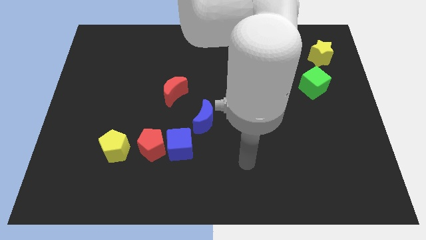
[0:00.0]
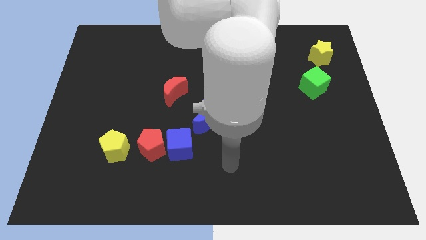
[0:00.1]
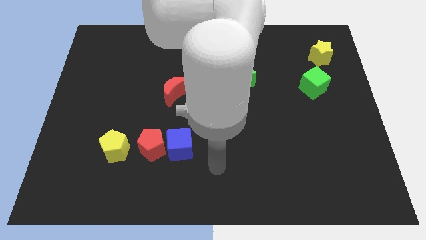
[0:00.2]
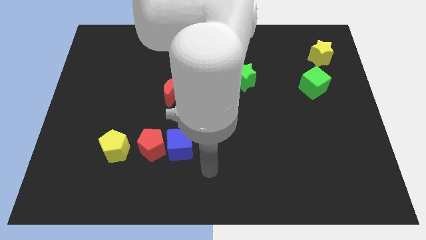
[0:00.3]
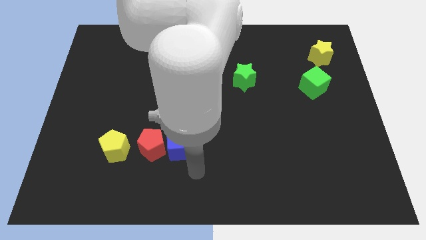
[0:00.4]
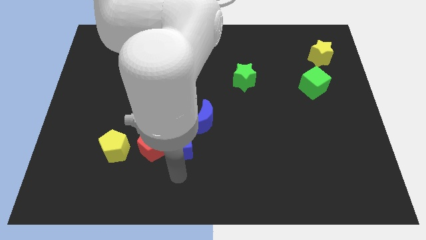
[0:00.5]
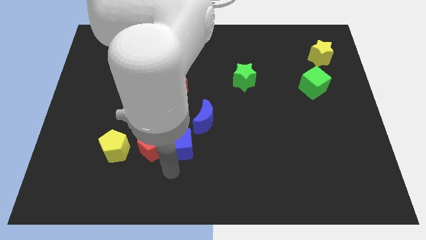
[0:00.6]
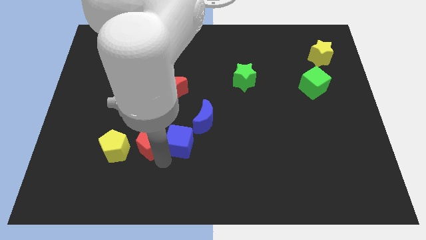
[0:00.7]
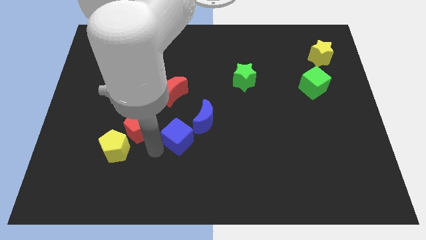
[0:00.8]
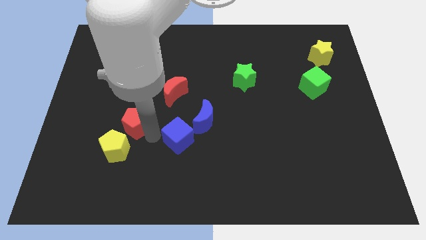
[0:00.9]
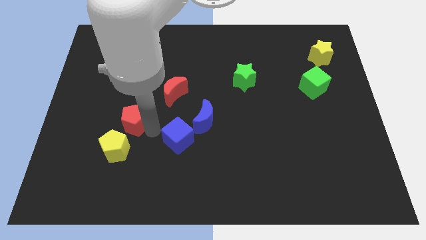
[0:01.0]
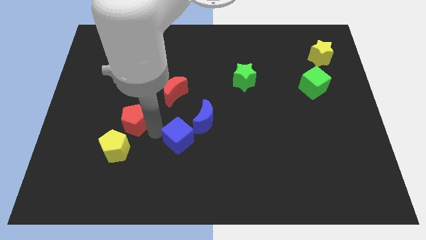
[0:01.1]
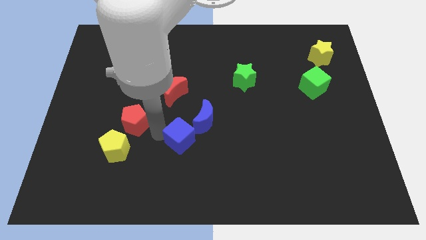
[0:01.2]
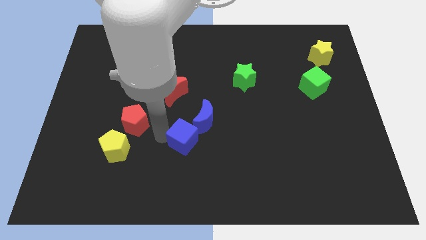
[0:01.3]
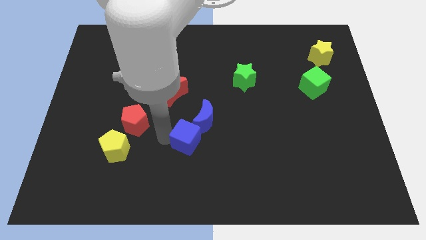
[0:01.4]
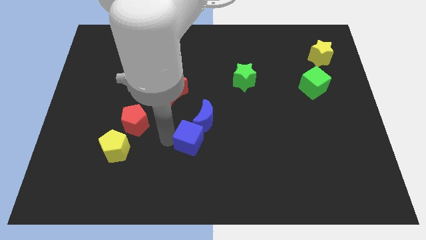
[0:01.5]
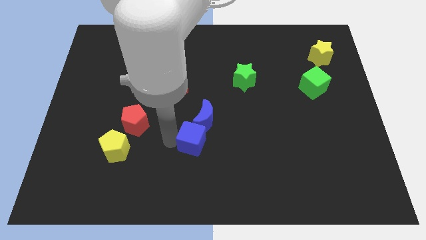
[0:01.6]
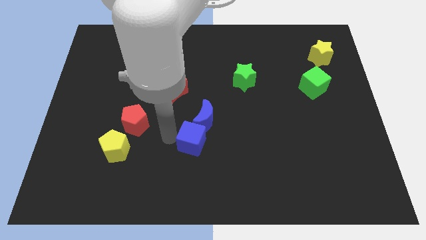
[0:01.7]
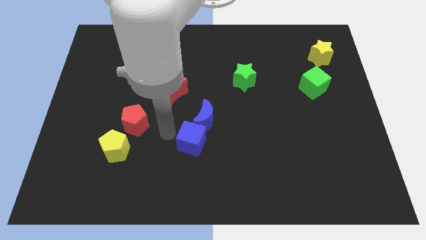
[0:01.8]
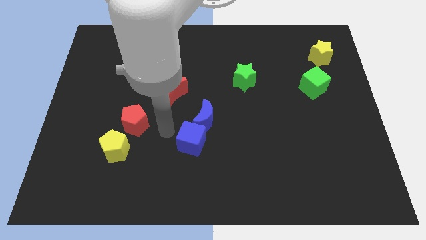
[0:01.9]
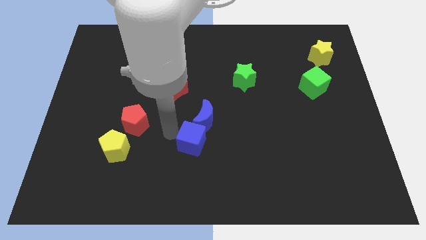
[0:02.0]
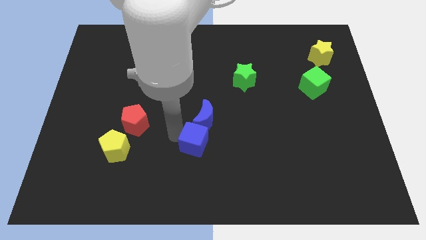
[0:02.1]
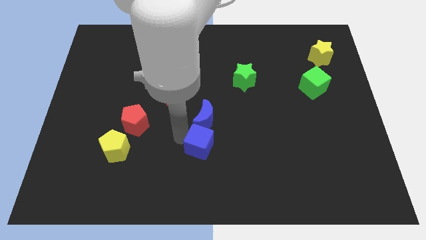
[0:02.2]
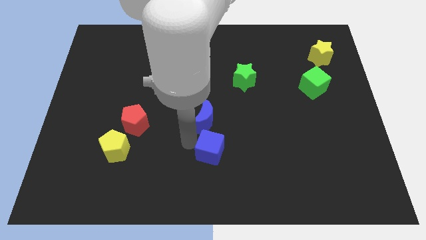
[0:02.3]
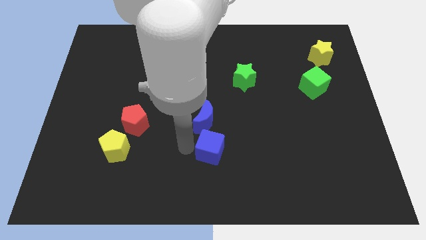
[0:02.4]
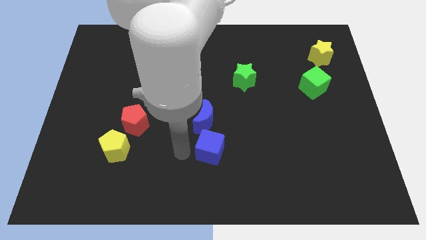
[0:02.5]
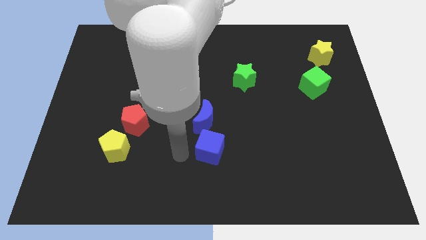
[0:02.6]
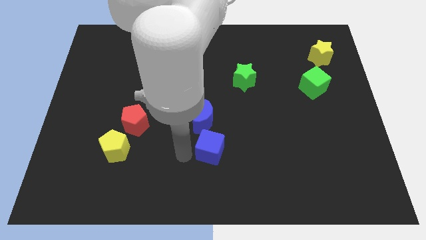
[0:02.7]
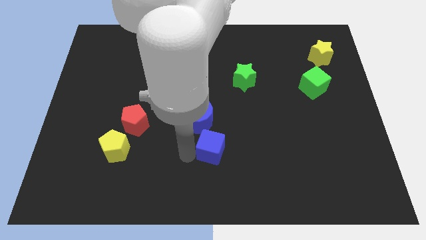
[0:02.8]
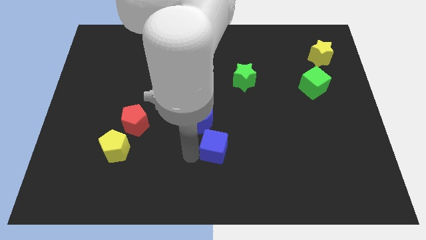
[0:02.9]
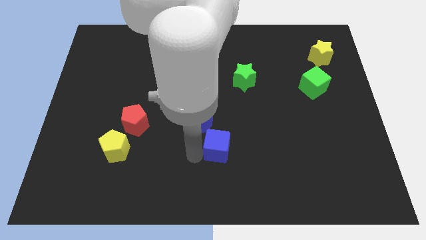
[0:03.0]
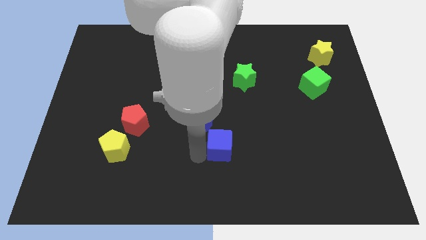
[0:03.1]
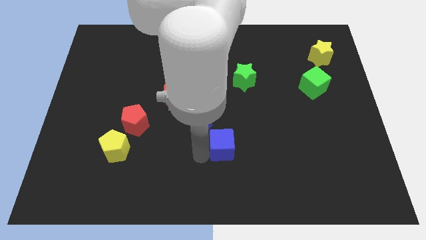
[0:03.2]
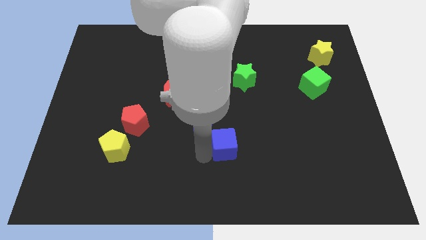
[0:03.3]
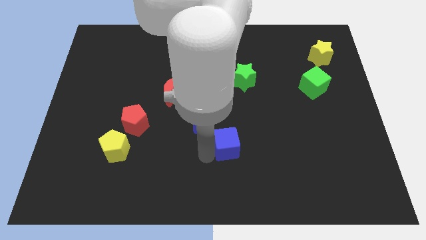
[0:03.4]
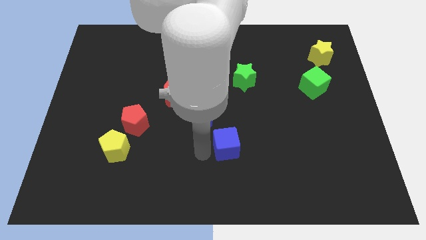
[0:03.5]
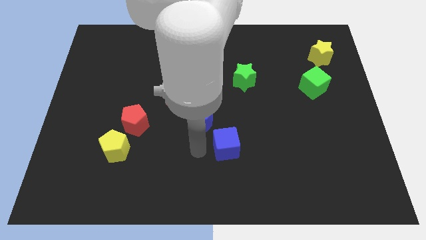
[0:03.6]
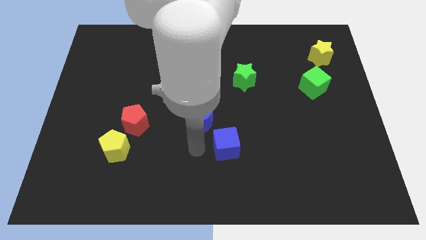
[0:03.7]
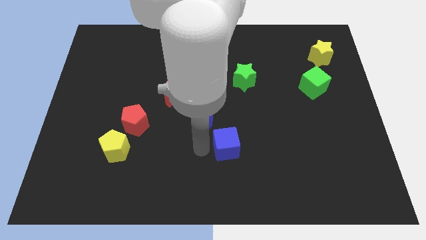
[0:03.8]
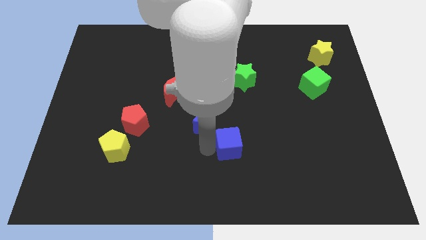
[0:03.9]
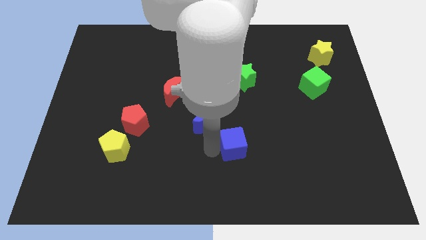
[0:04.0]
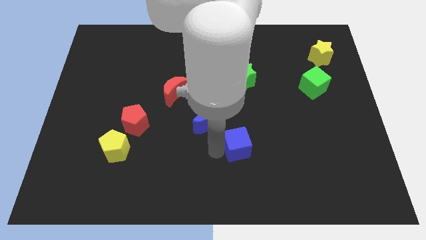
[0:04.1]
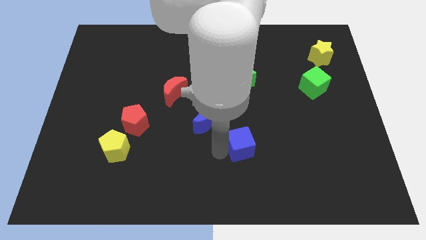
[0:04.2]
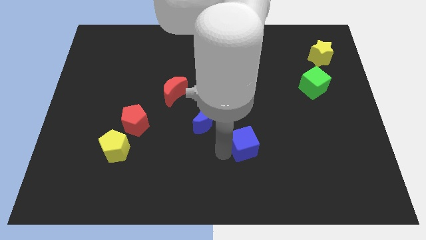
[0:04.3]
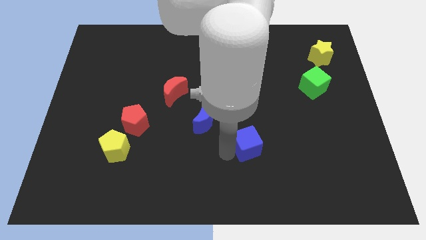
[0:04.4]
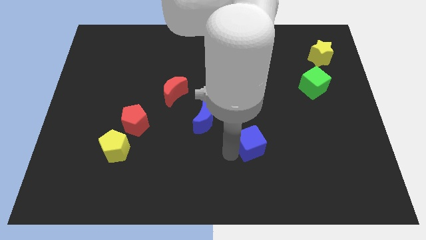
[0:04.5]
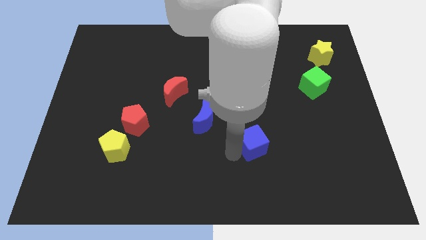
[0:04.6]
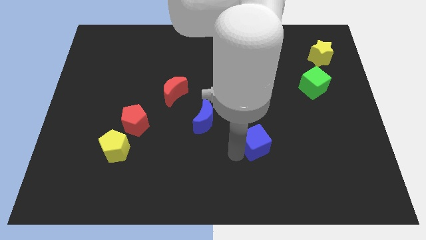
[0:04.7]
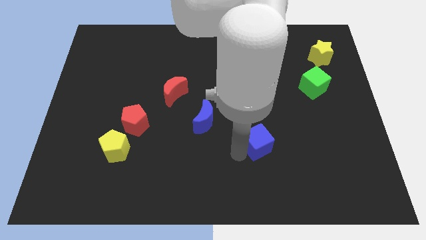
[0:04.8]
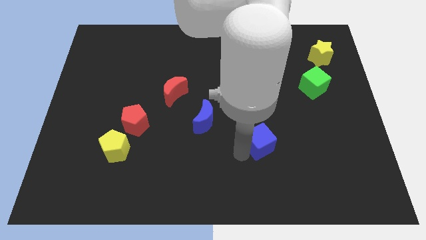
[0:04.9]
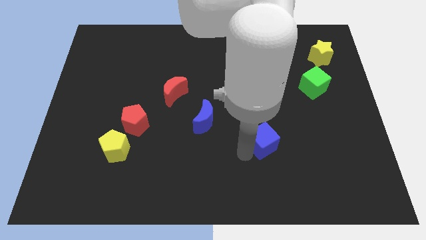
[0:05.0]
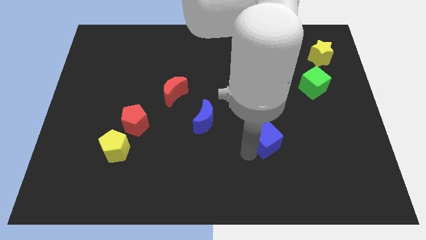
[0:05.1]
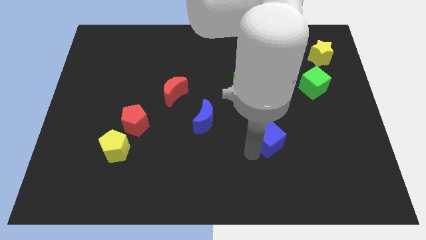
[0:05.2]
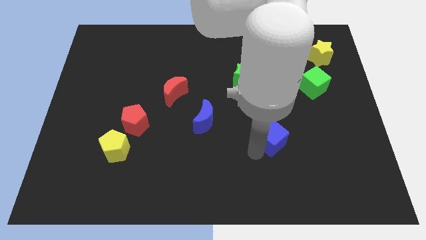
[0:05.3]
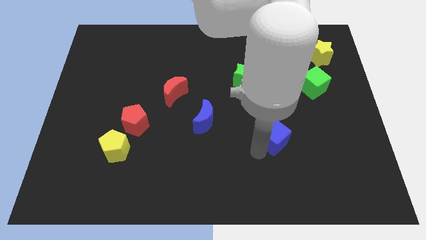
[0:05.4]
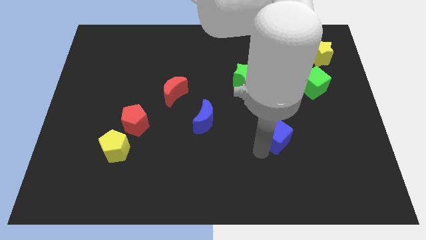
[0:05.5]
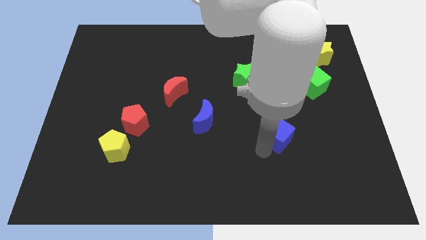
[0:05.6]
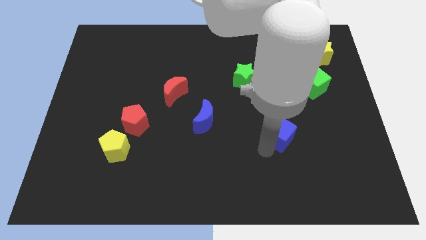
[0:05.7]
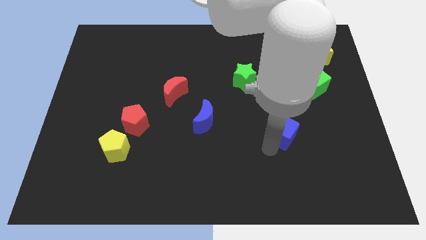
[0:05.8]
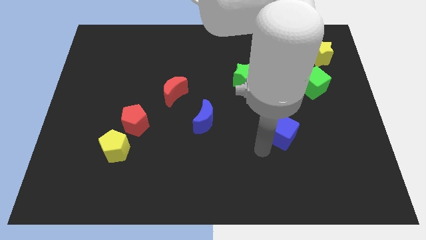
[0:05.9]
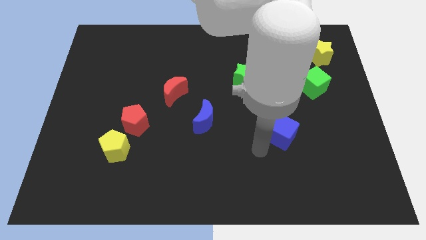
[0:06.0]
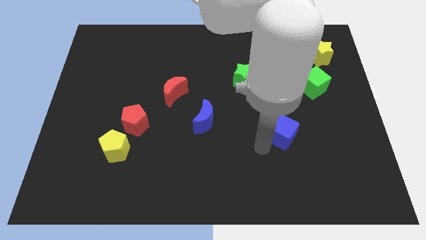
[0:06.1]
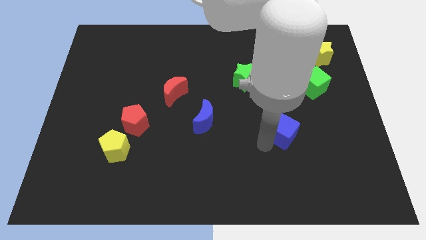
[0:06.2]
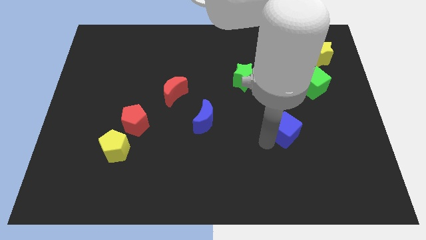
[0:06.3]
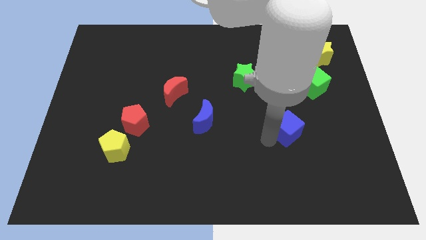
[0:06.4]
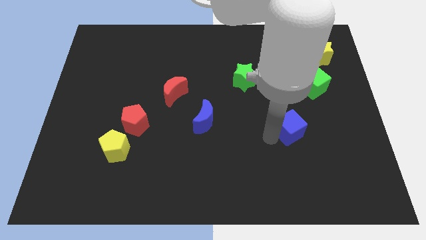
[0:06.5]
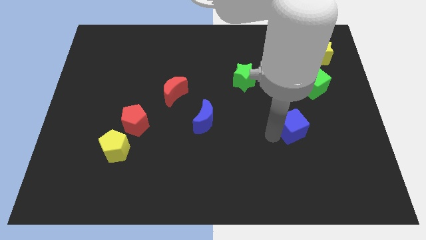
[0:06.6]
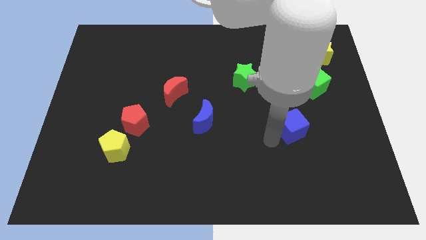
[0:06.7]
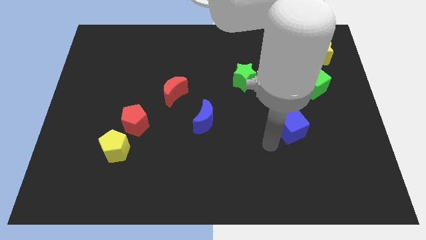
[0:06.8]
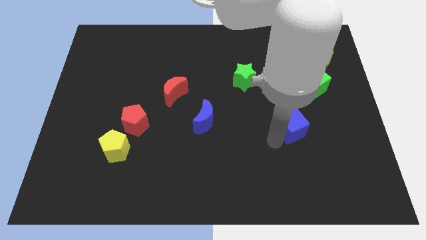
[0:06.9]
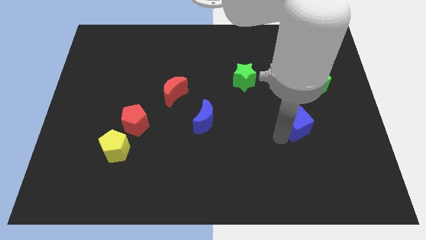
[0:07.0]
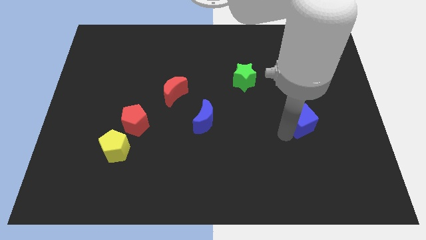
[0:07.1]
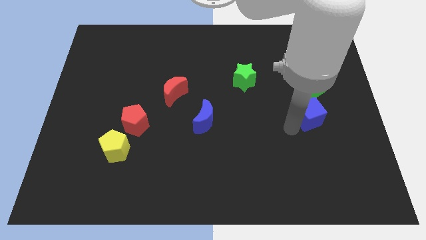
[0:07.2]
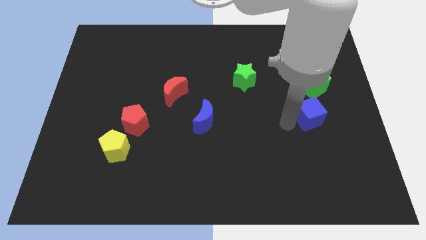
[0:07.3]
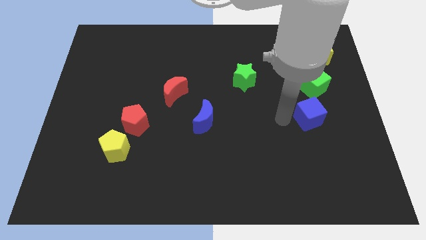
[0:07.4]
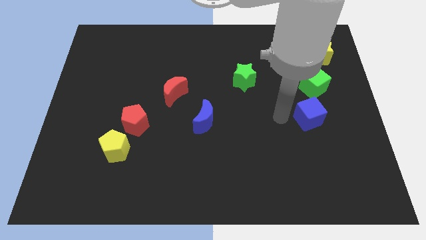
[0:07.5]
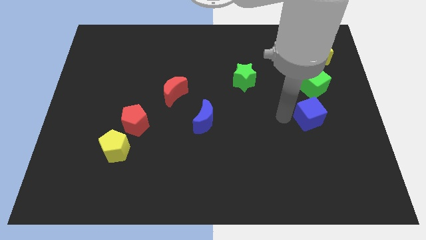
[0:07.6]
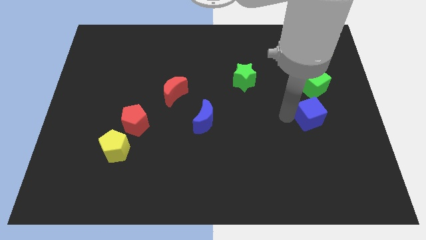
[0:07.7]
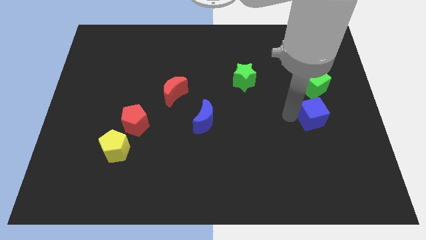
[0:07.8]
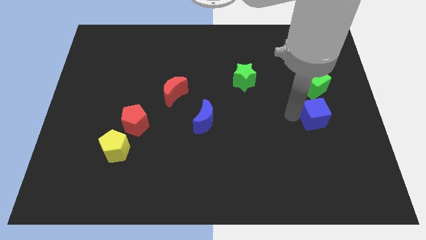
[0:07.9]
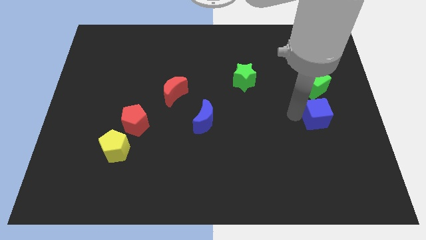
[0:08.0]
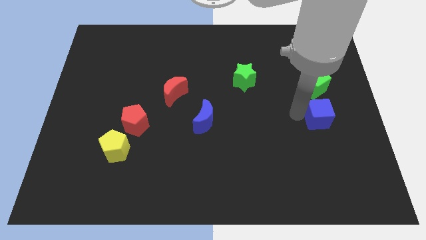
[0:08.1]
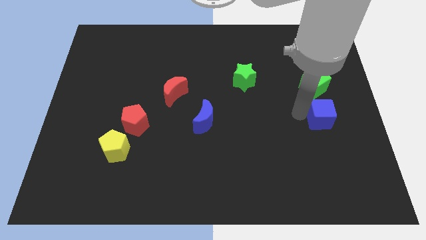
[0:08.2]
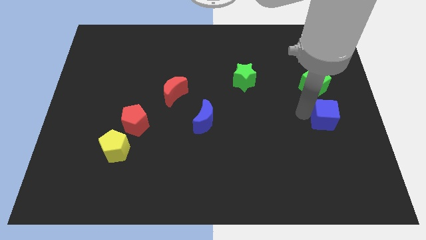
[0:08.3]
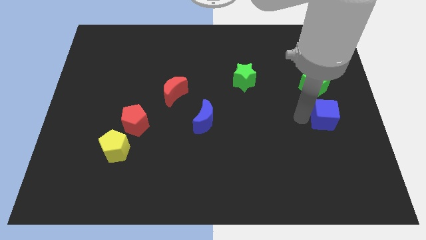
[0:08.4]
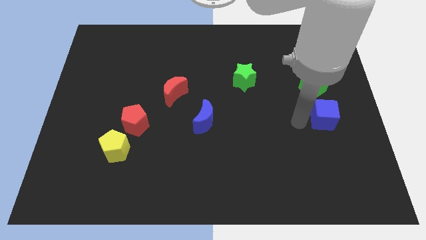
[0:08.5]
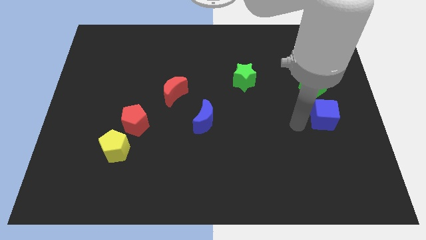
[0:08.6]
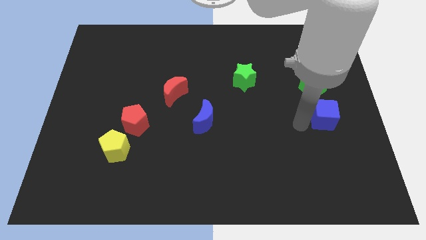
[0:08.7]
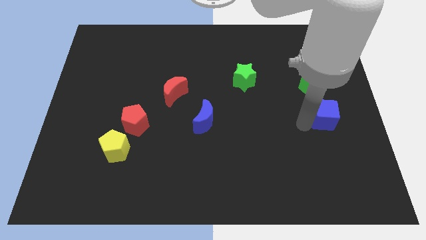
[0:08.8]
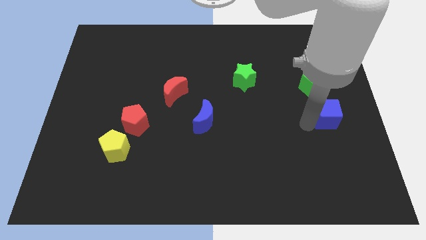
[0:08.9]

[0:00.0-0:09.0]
slide the blue cube to the right side
